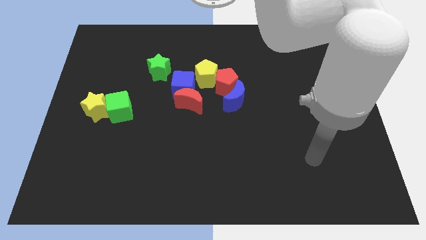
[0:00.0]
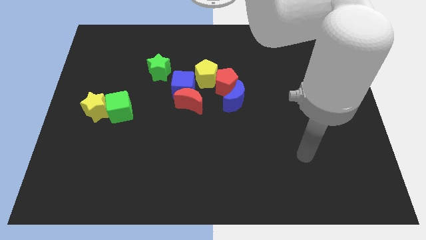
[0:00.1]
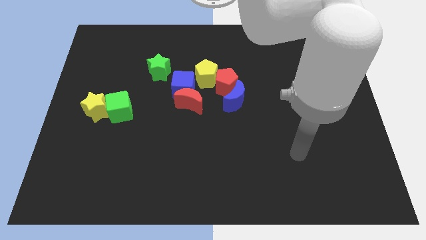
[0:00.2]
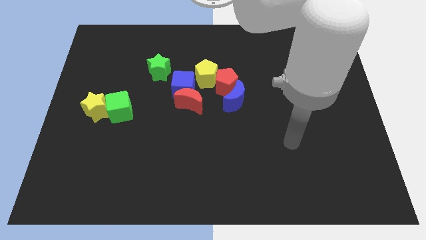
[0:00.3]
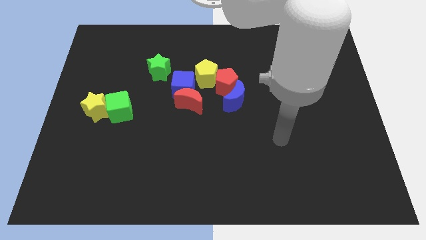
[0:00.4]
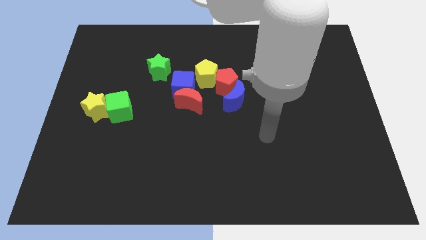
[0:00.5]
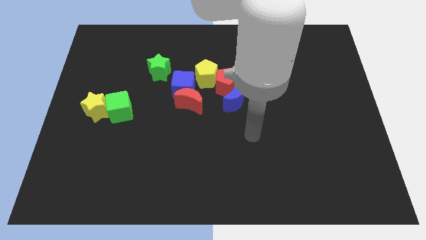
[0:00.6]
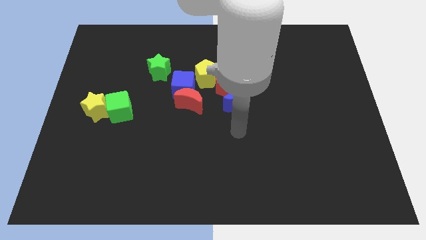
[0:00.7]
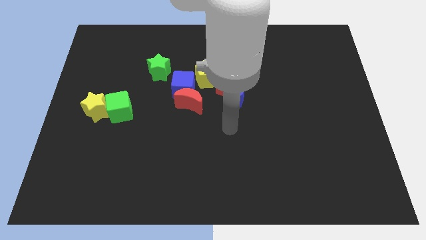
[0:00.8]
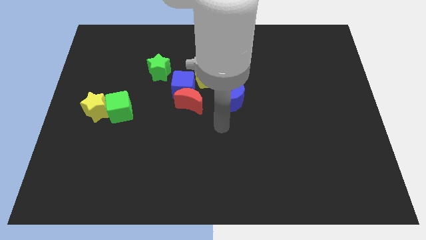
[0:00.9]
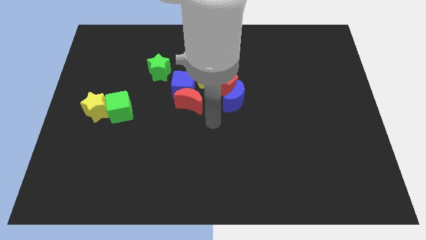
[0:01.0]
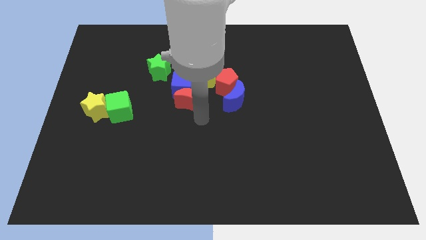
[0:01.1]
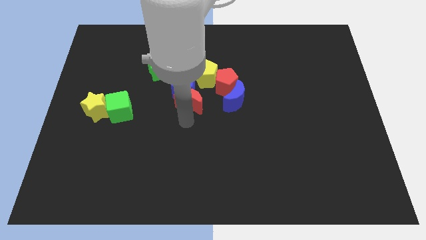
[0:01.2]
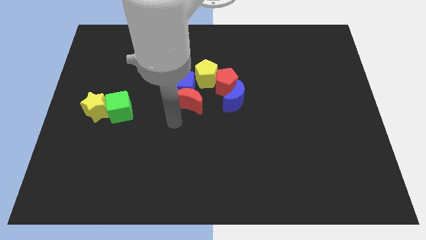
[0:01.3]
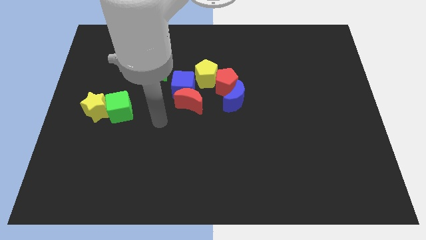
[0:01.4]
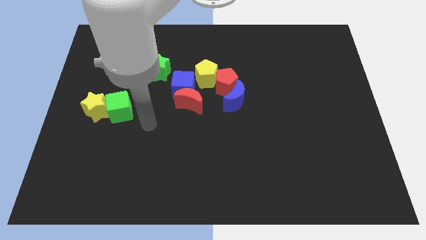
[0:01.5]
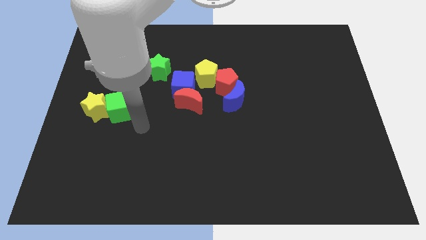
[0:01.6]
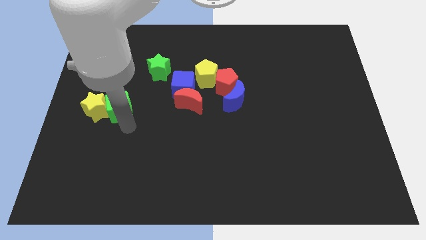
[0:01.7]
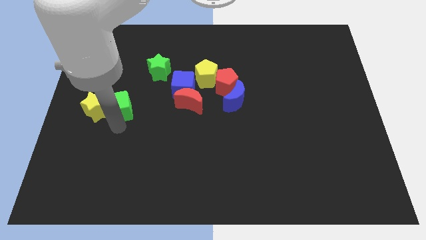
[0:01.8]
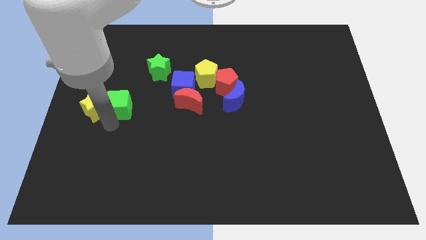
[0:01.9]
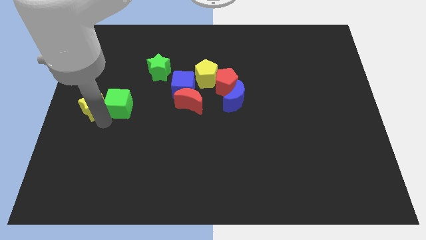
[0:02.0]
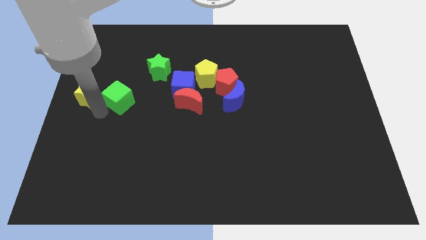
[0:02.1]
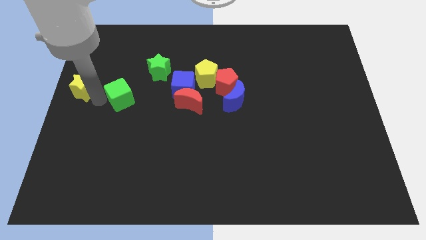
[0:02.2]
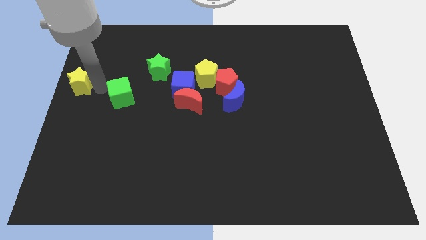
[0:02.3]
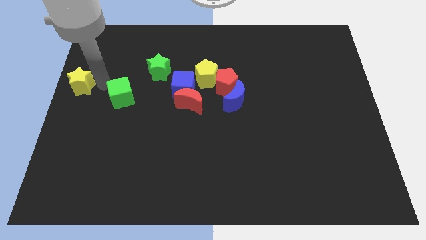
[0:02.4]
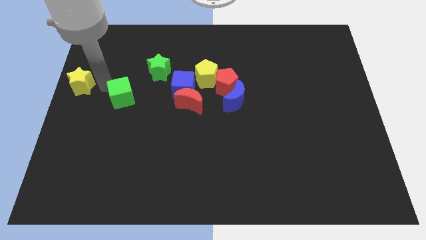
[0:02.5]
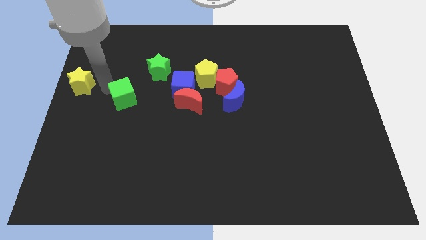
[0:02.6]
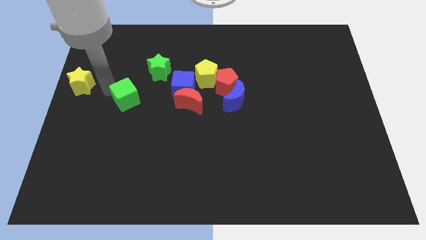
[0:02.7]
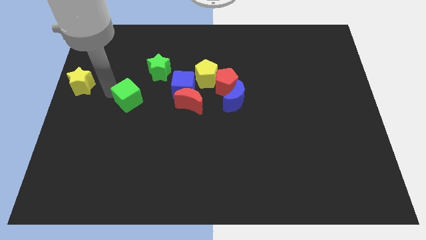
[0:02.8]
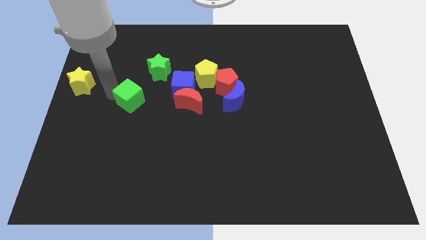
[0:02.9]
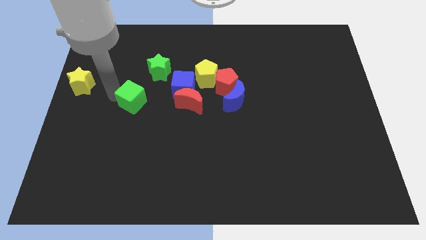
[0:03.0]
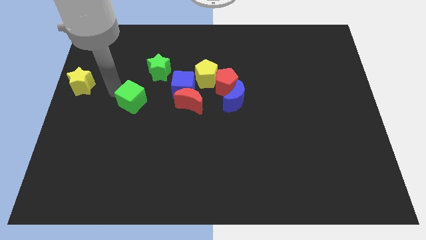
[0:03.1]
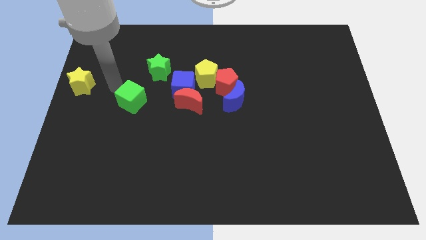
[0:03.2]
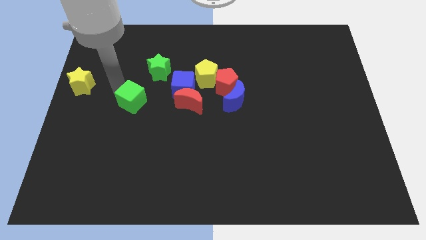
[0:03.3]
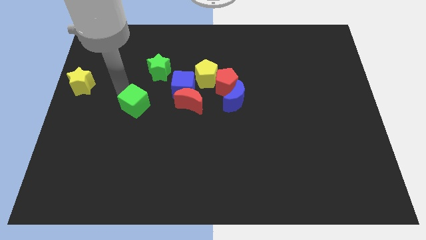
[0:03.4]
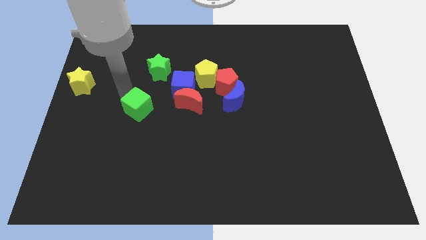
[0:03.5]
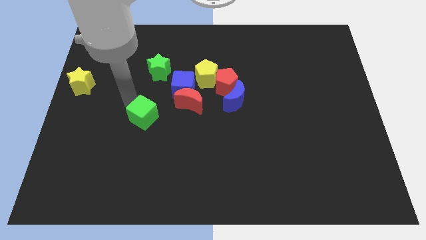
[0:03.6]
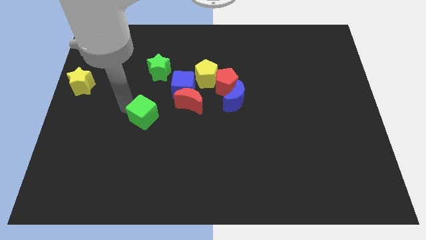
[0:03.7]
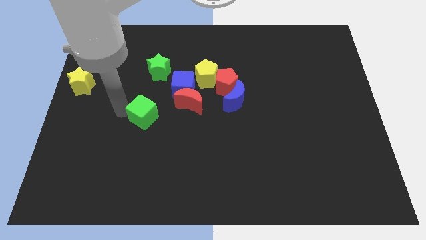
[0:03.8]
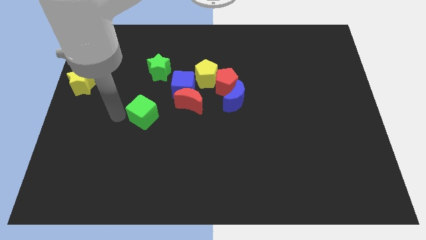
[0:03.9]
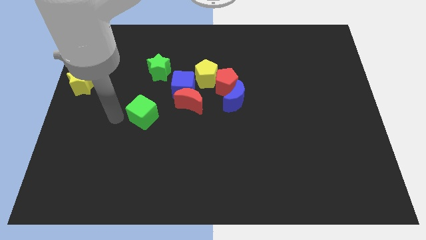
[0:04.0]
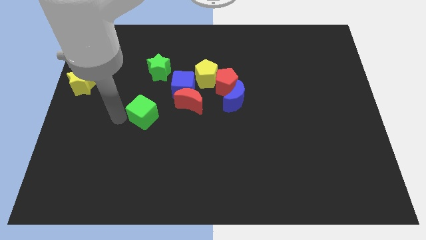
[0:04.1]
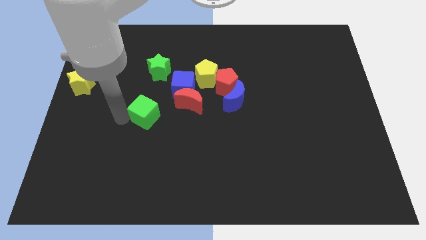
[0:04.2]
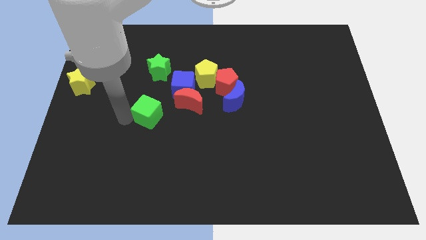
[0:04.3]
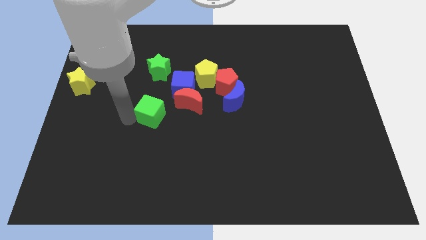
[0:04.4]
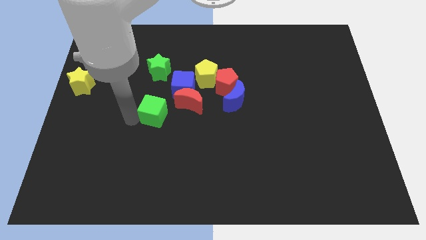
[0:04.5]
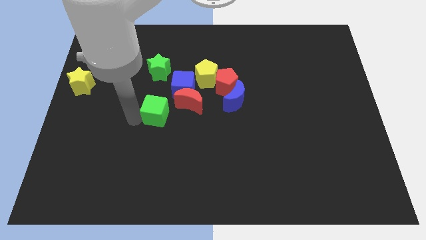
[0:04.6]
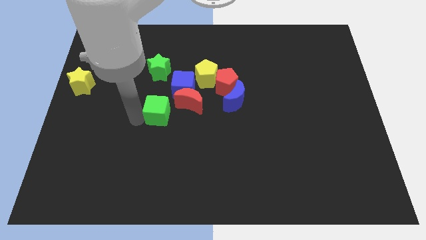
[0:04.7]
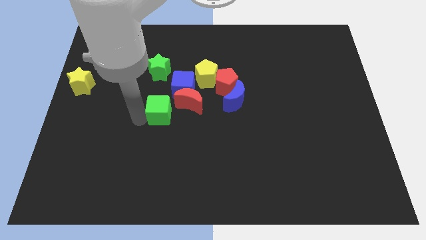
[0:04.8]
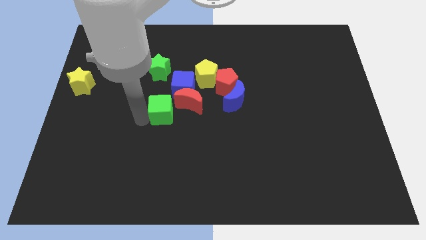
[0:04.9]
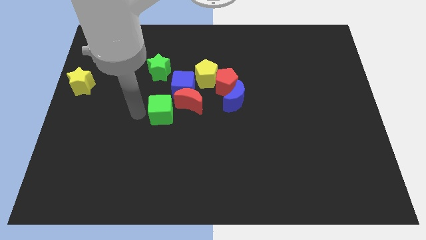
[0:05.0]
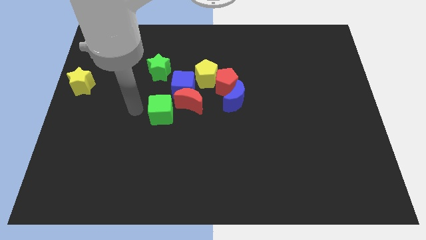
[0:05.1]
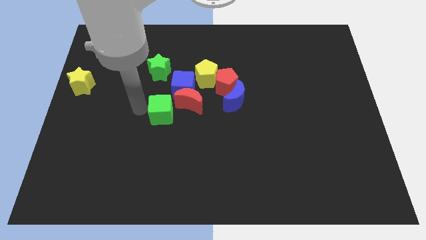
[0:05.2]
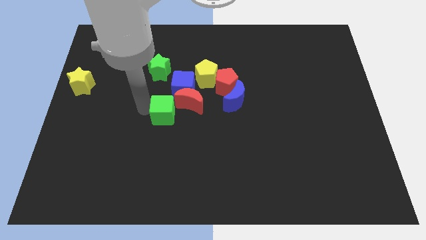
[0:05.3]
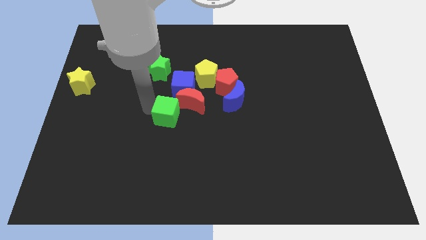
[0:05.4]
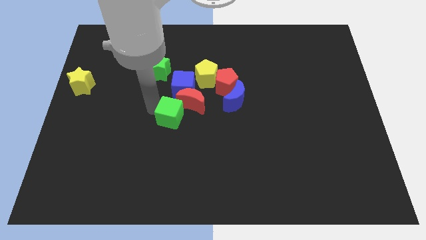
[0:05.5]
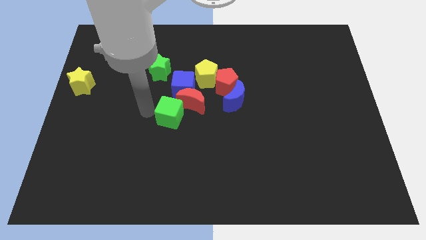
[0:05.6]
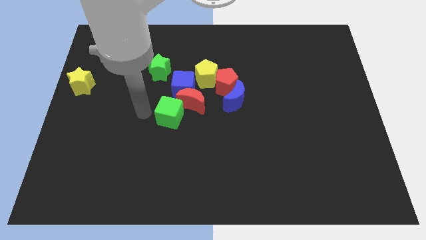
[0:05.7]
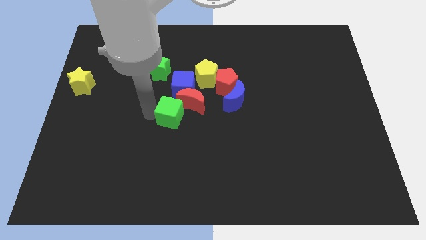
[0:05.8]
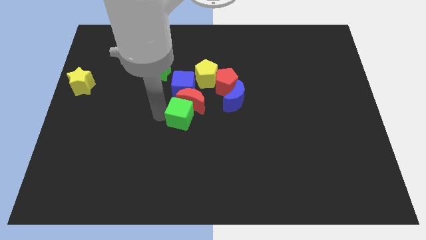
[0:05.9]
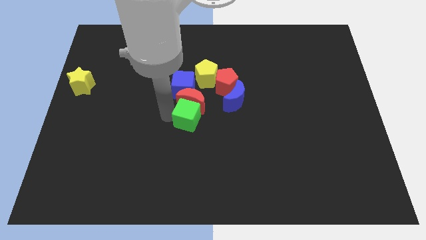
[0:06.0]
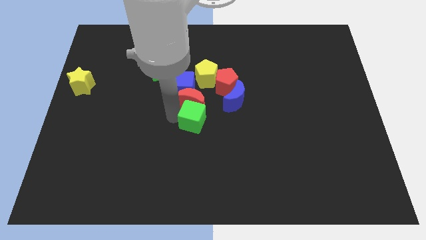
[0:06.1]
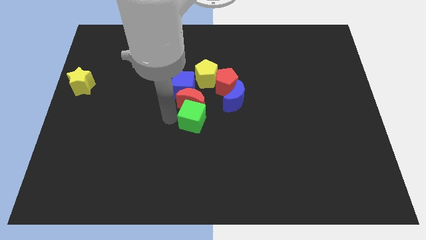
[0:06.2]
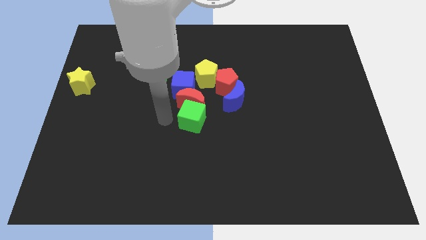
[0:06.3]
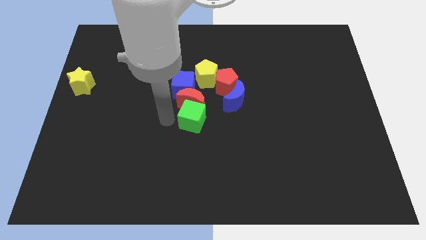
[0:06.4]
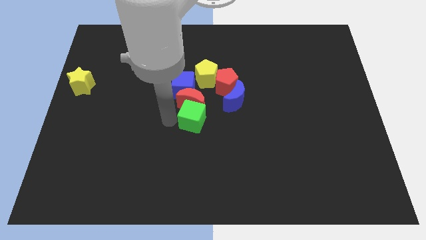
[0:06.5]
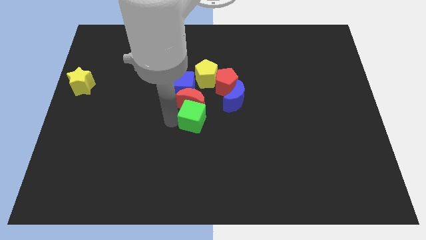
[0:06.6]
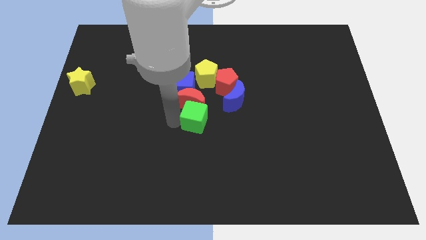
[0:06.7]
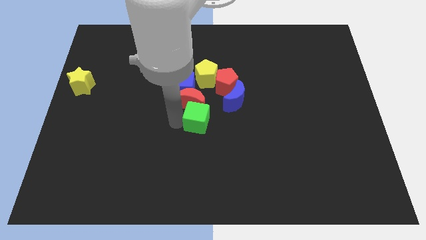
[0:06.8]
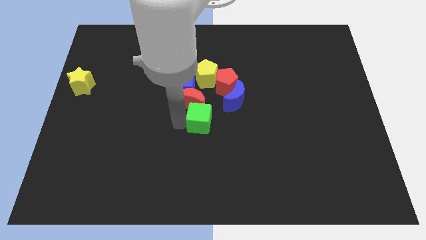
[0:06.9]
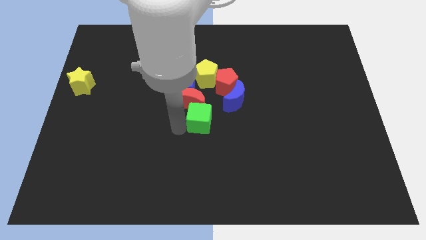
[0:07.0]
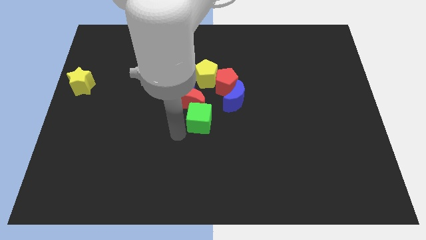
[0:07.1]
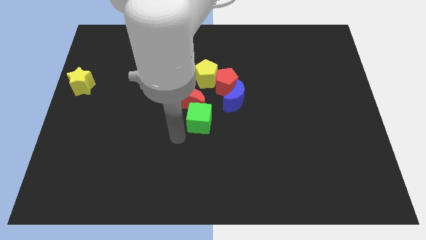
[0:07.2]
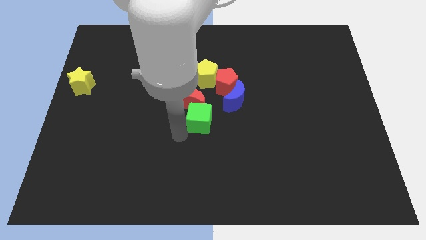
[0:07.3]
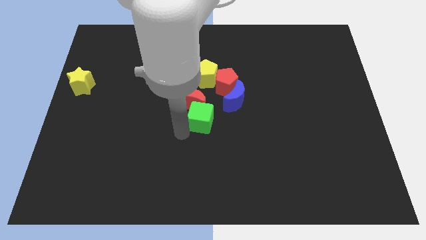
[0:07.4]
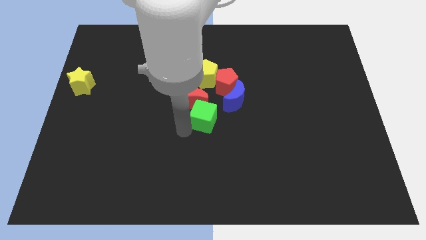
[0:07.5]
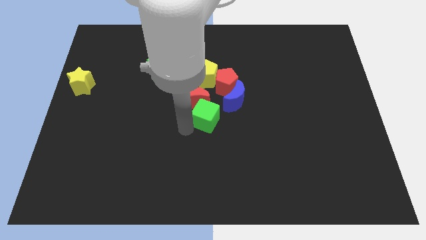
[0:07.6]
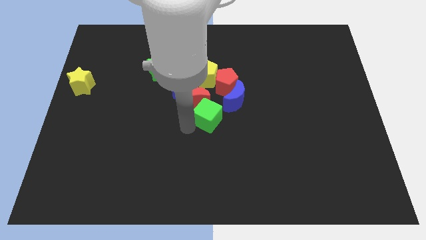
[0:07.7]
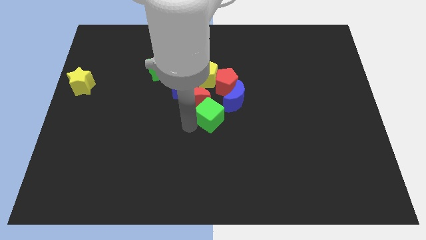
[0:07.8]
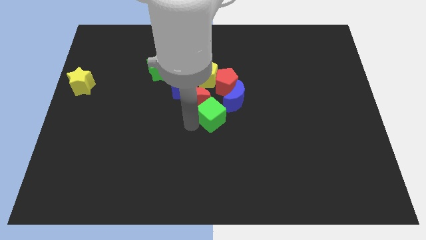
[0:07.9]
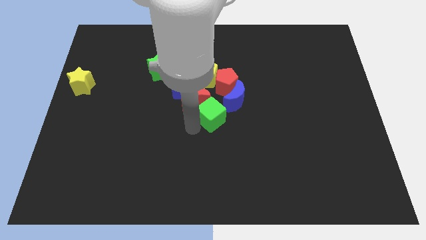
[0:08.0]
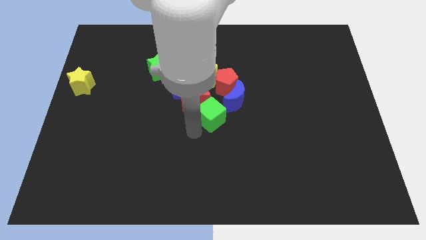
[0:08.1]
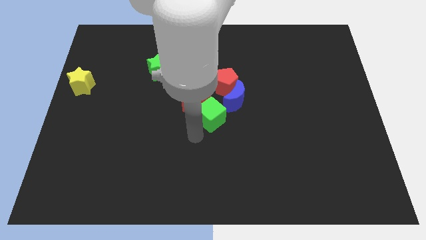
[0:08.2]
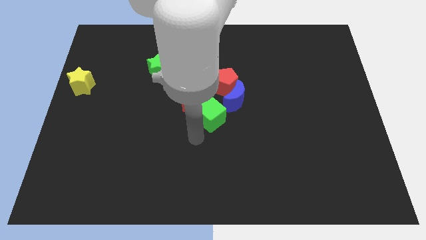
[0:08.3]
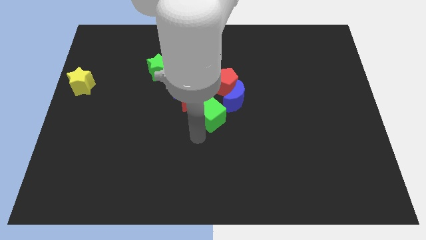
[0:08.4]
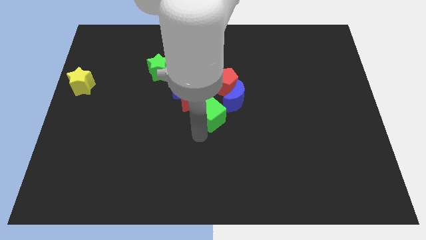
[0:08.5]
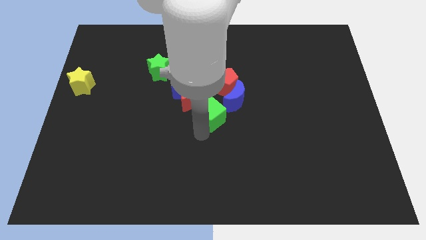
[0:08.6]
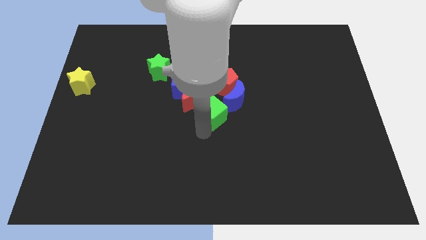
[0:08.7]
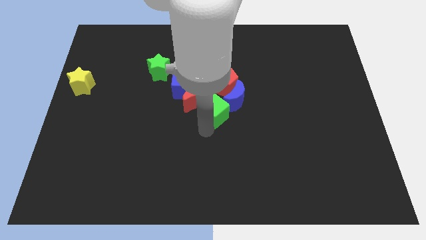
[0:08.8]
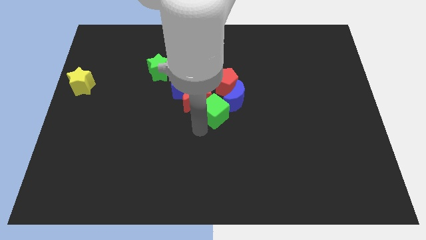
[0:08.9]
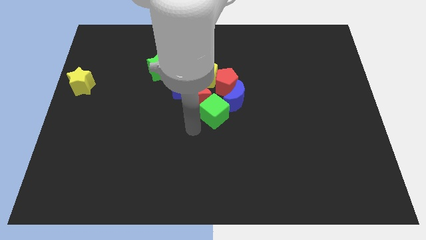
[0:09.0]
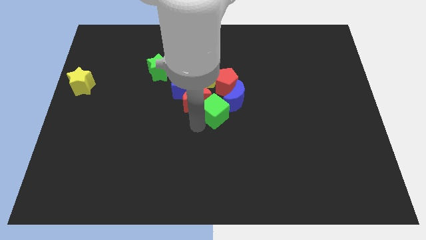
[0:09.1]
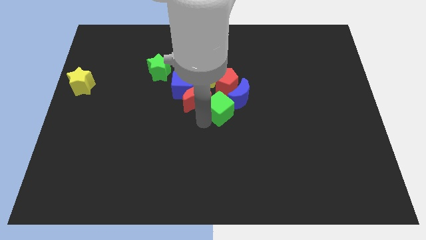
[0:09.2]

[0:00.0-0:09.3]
slide the green cube towards the blue moon
